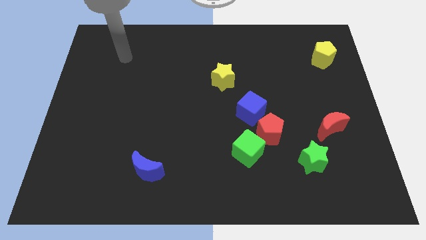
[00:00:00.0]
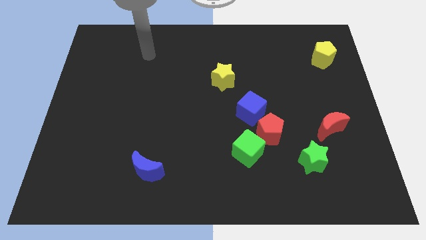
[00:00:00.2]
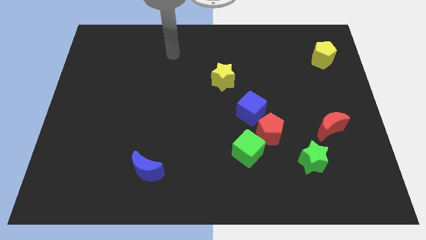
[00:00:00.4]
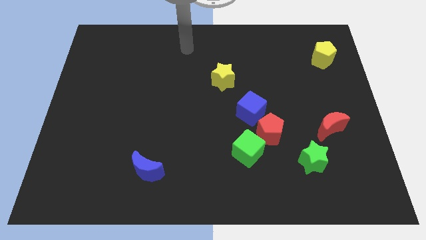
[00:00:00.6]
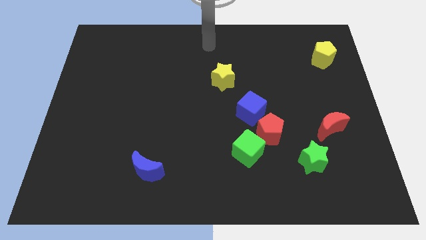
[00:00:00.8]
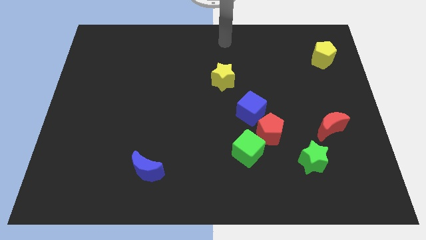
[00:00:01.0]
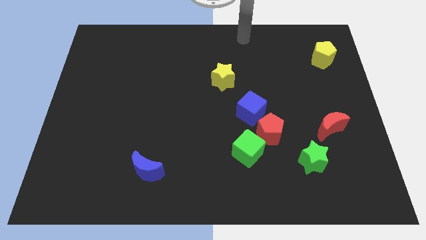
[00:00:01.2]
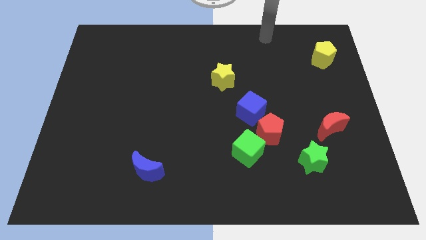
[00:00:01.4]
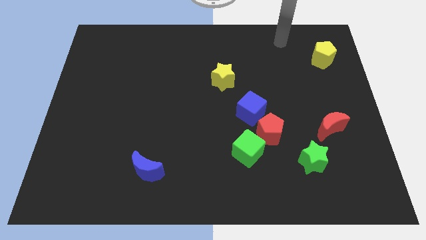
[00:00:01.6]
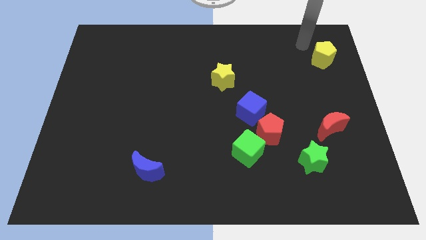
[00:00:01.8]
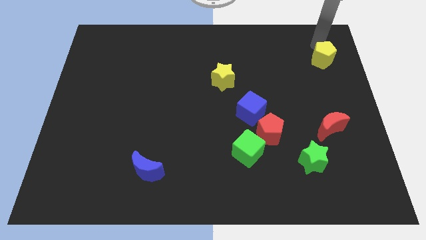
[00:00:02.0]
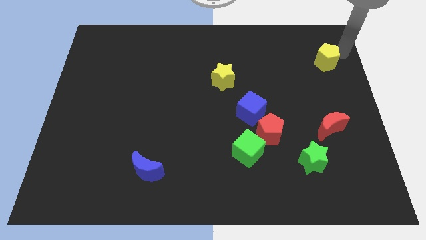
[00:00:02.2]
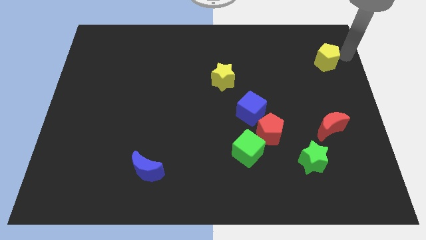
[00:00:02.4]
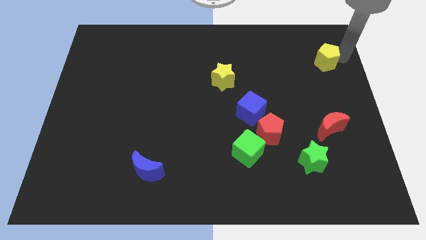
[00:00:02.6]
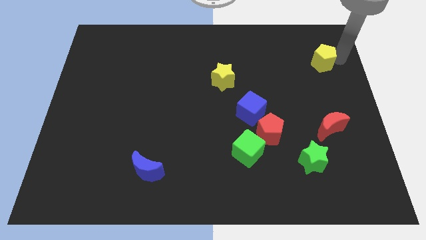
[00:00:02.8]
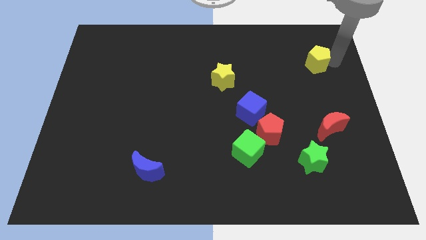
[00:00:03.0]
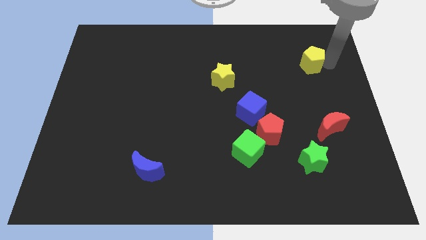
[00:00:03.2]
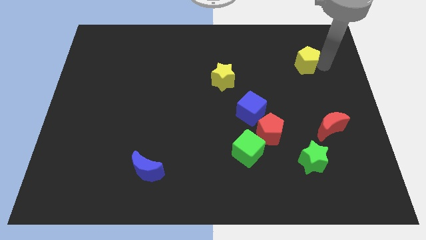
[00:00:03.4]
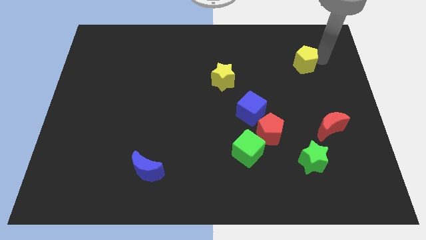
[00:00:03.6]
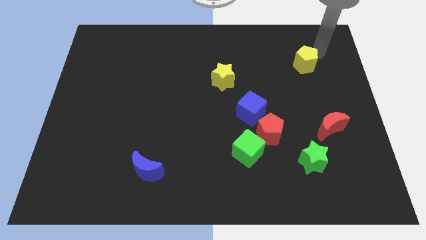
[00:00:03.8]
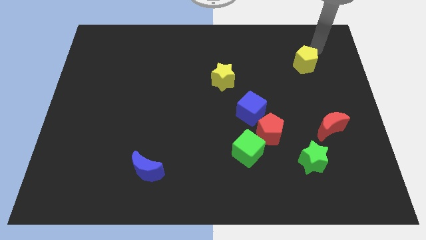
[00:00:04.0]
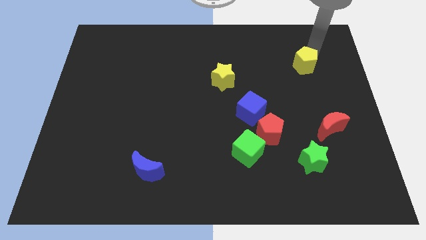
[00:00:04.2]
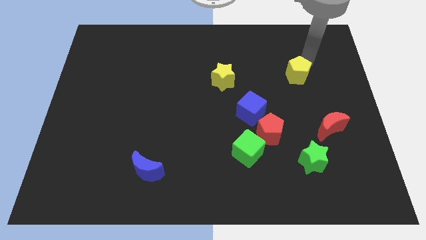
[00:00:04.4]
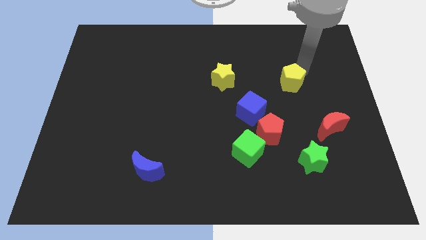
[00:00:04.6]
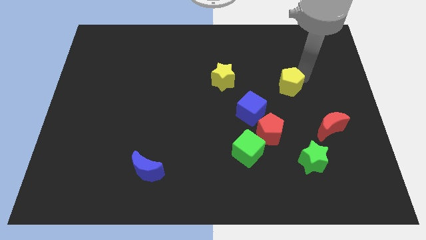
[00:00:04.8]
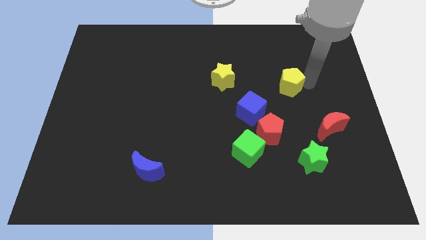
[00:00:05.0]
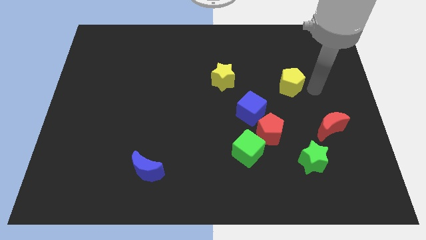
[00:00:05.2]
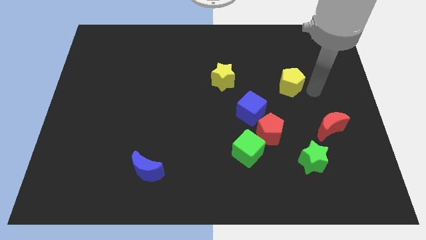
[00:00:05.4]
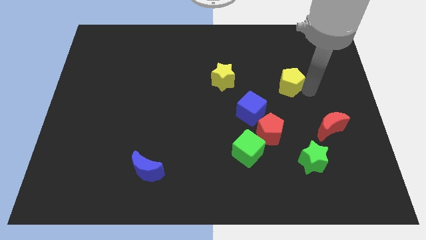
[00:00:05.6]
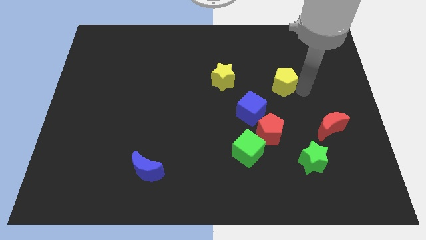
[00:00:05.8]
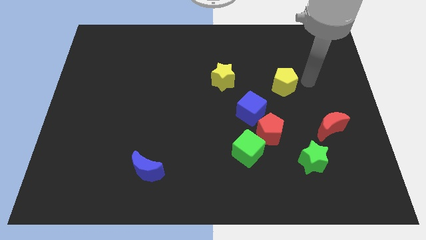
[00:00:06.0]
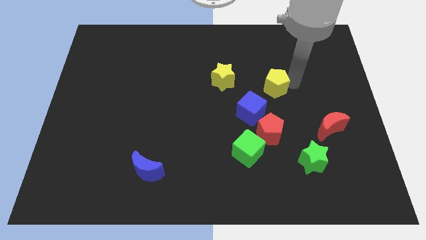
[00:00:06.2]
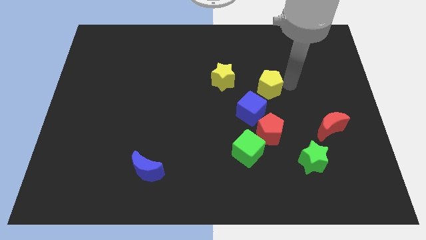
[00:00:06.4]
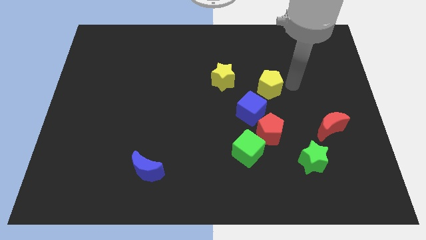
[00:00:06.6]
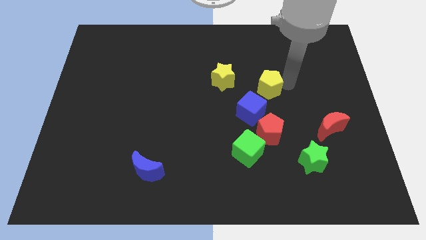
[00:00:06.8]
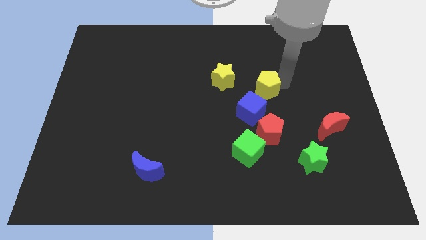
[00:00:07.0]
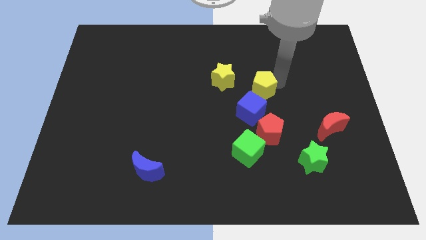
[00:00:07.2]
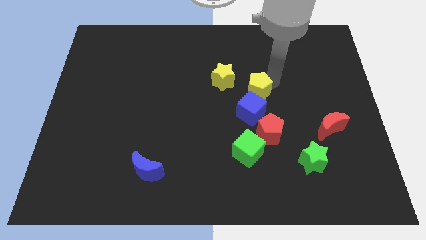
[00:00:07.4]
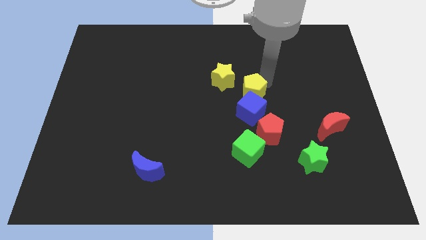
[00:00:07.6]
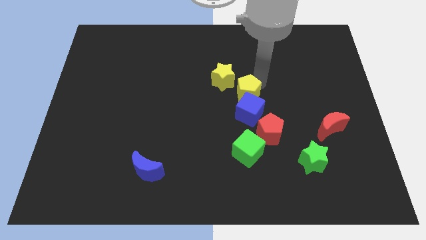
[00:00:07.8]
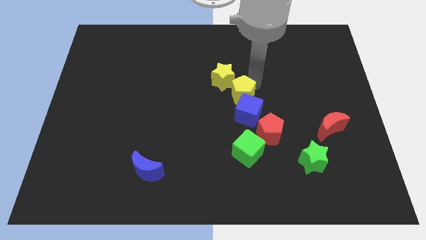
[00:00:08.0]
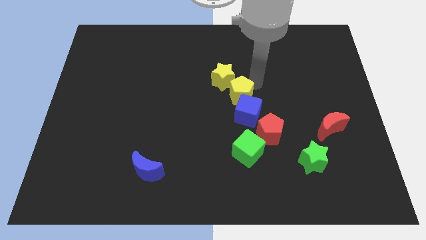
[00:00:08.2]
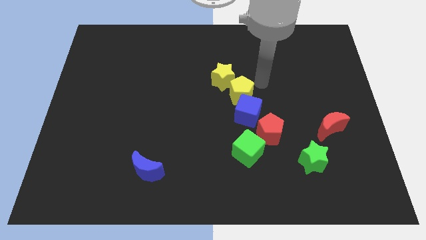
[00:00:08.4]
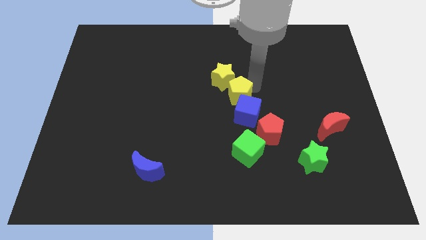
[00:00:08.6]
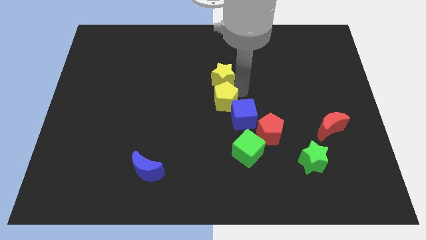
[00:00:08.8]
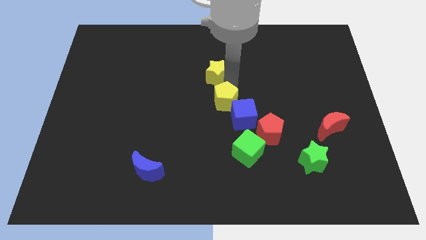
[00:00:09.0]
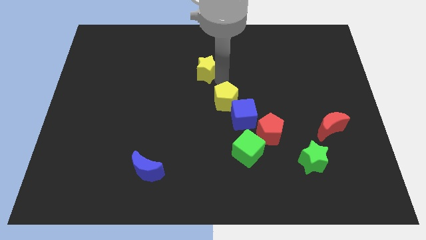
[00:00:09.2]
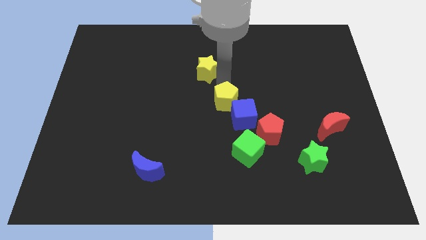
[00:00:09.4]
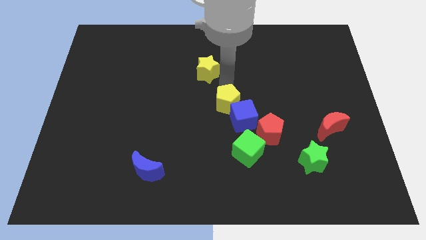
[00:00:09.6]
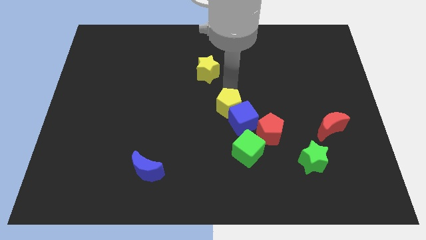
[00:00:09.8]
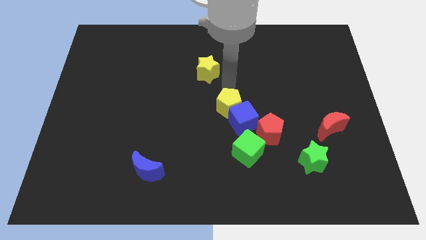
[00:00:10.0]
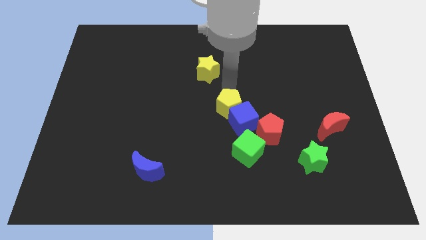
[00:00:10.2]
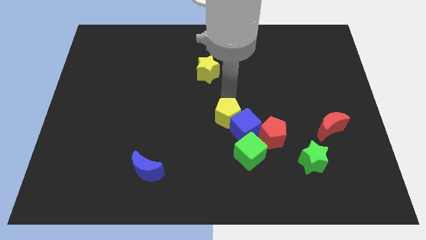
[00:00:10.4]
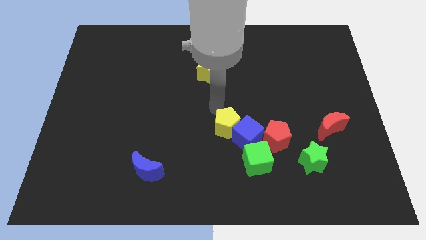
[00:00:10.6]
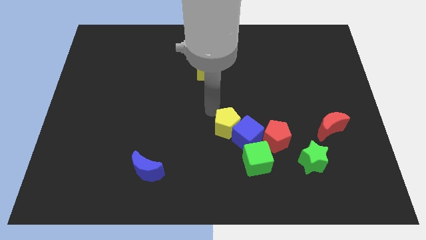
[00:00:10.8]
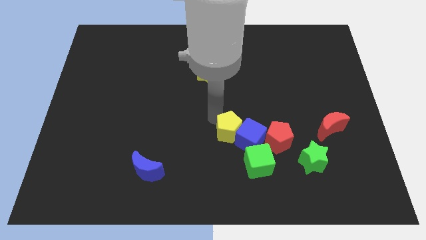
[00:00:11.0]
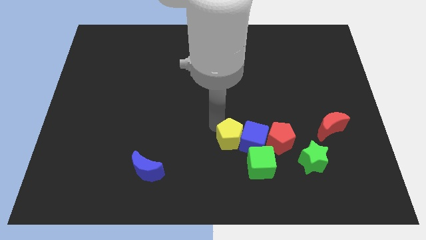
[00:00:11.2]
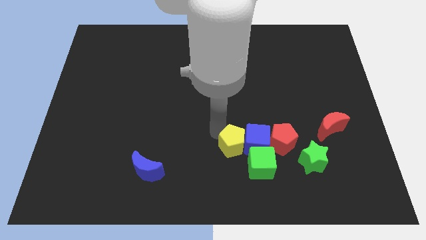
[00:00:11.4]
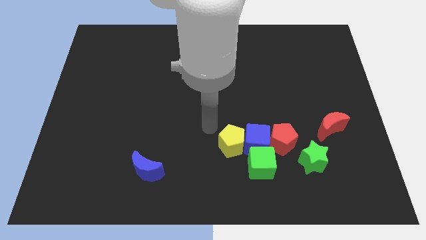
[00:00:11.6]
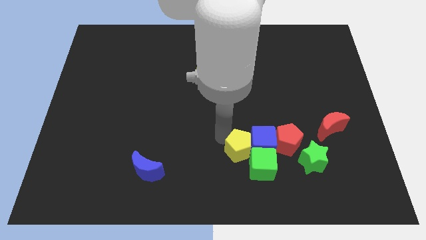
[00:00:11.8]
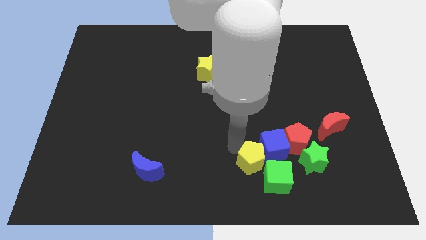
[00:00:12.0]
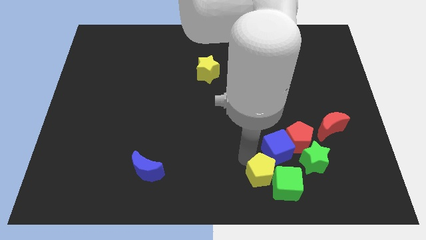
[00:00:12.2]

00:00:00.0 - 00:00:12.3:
move the yellow pentagon towards the green cube

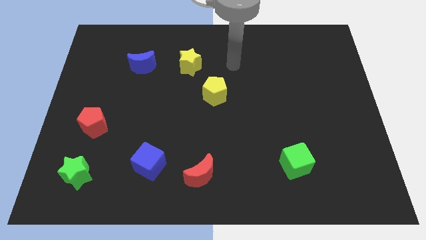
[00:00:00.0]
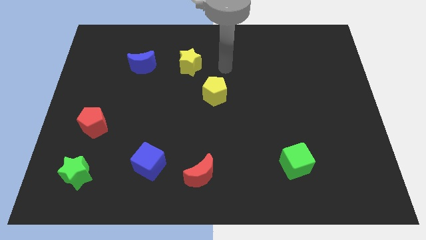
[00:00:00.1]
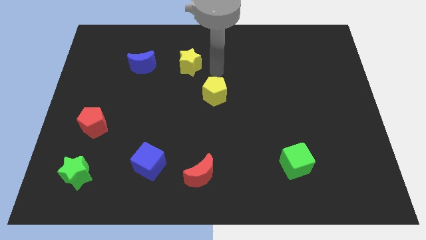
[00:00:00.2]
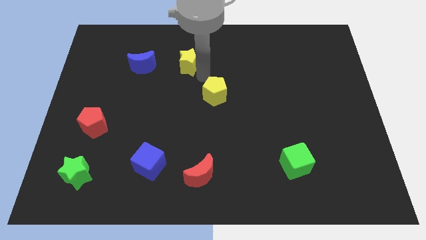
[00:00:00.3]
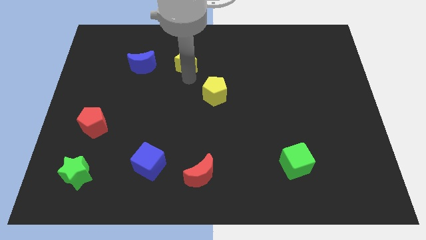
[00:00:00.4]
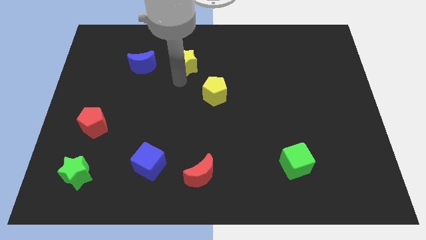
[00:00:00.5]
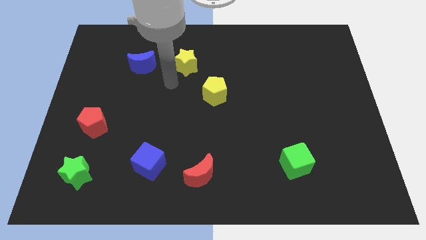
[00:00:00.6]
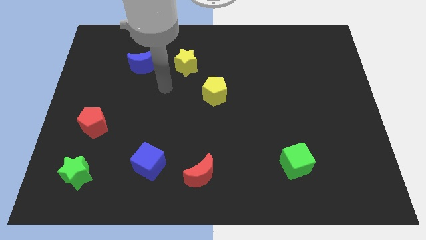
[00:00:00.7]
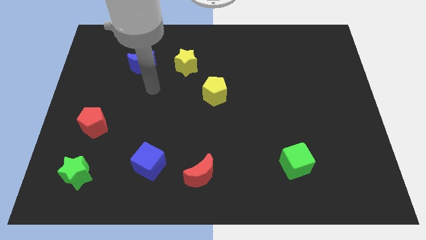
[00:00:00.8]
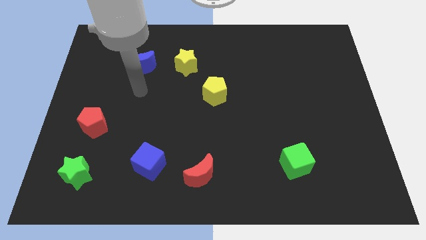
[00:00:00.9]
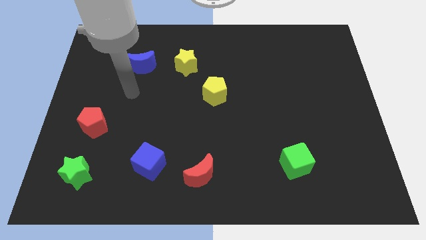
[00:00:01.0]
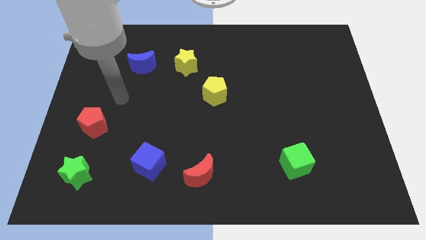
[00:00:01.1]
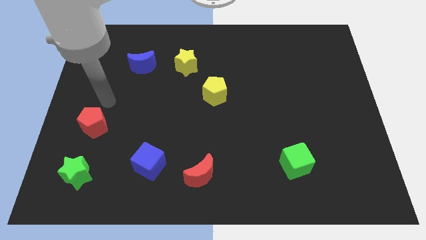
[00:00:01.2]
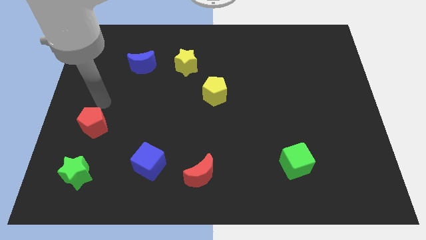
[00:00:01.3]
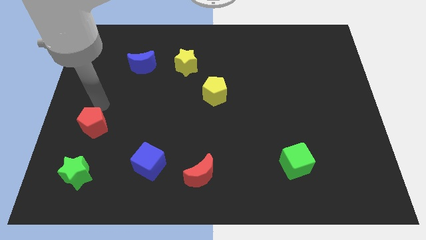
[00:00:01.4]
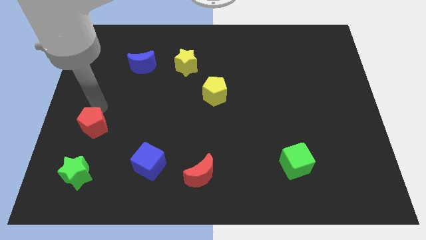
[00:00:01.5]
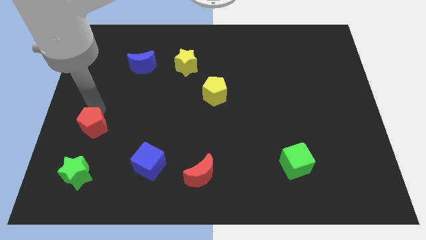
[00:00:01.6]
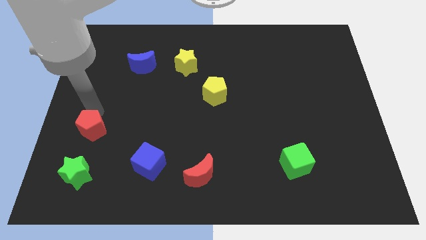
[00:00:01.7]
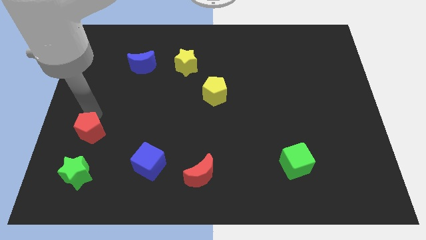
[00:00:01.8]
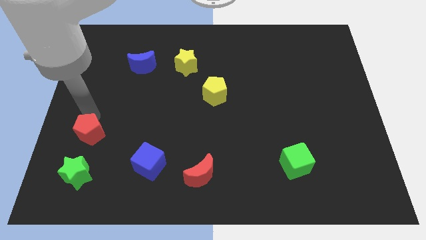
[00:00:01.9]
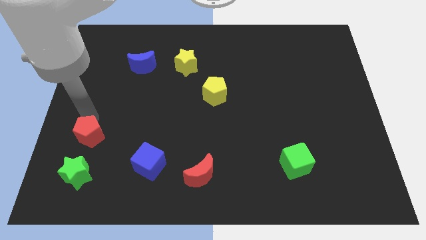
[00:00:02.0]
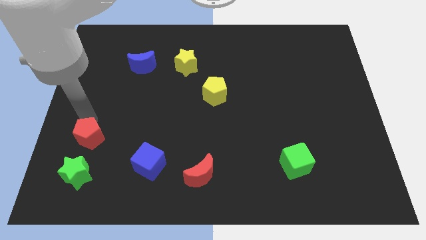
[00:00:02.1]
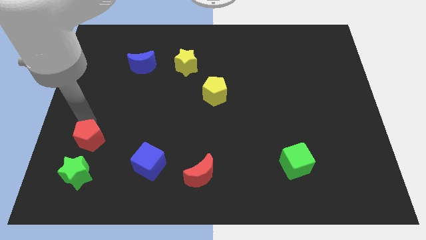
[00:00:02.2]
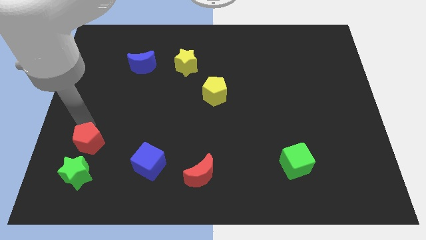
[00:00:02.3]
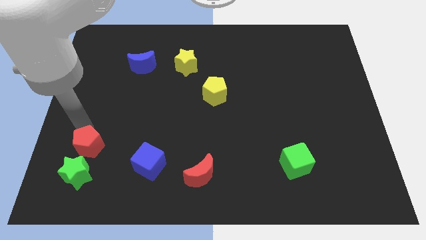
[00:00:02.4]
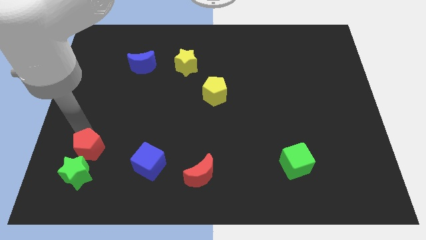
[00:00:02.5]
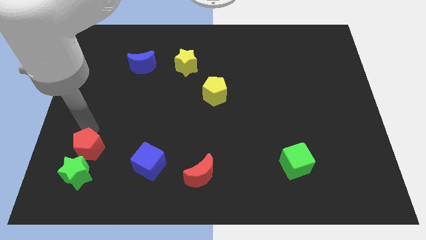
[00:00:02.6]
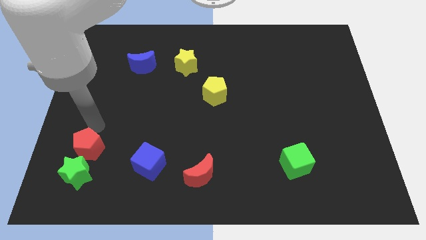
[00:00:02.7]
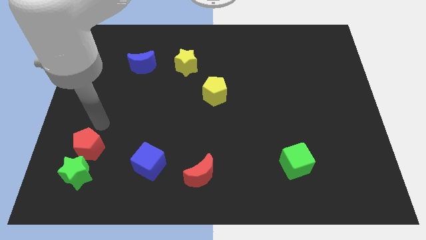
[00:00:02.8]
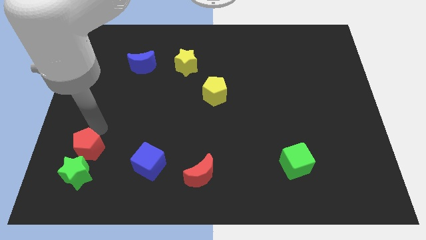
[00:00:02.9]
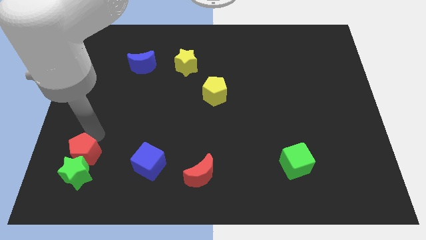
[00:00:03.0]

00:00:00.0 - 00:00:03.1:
slide the red pentagon next to the green star
